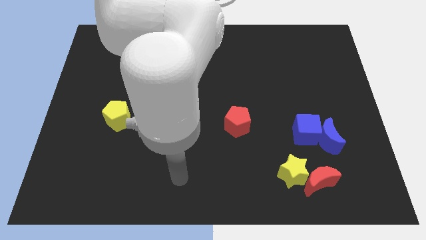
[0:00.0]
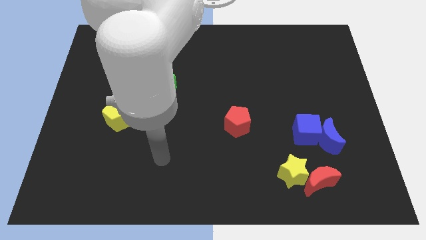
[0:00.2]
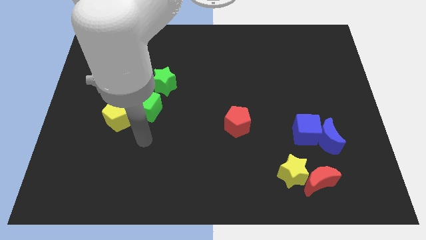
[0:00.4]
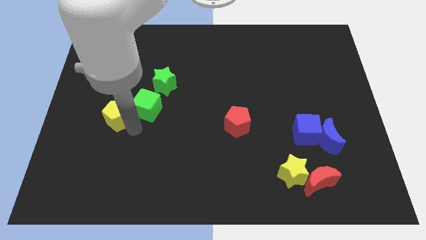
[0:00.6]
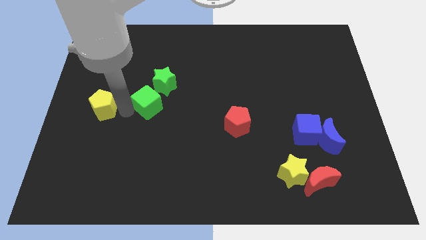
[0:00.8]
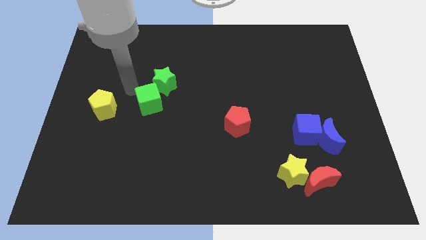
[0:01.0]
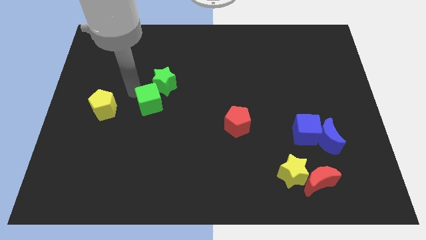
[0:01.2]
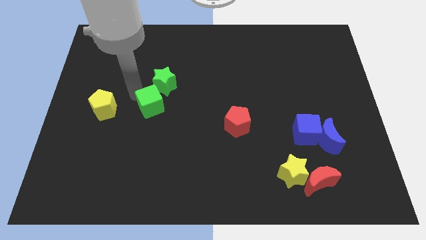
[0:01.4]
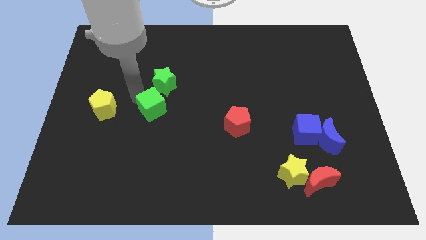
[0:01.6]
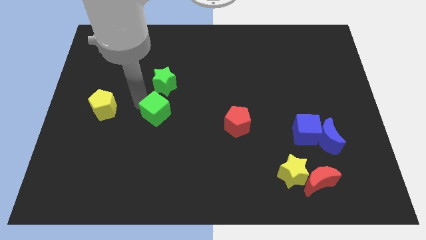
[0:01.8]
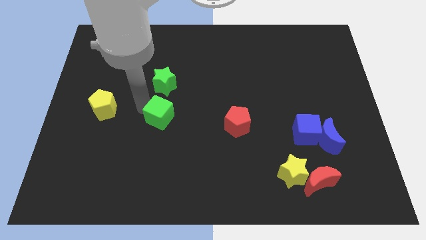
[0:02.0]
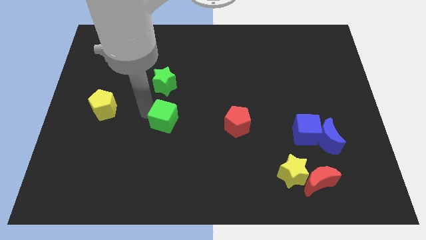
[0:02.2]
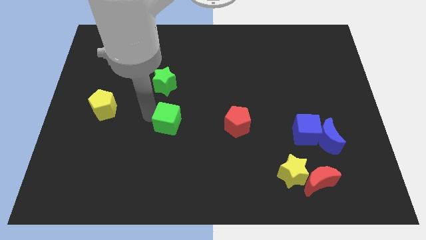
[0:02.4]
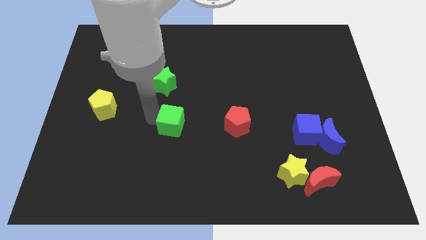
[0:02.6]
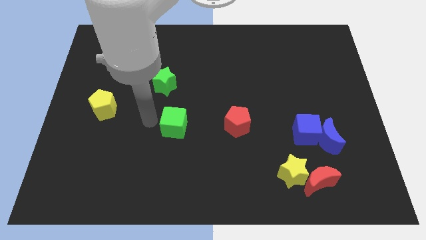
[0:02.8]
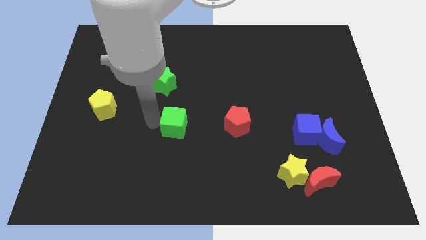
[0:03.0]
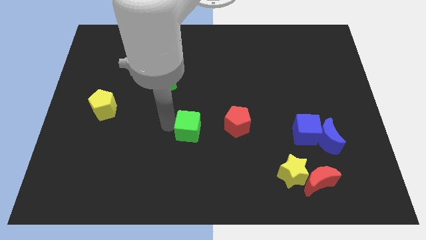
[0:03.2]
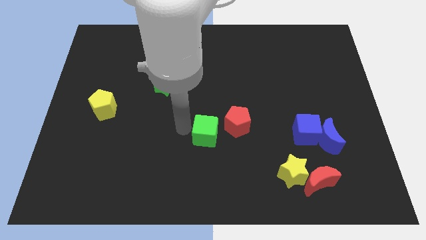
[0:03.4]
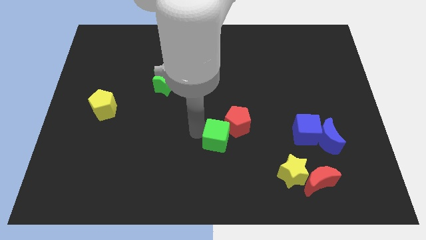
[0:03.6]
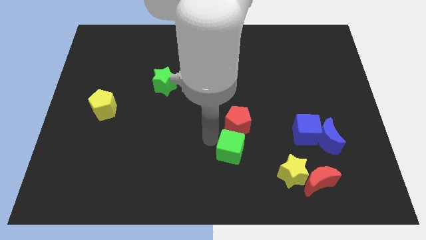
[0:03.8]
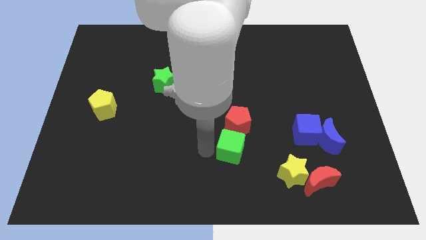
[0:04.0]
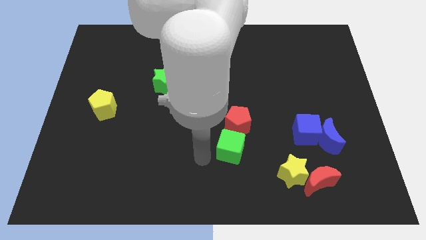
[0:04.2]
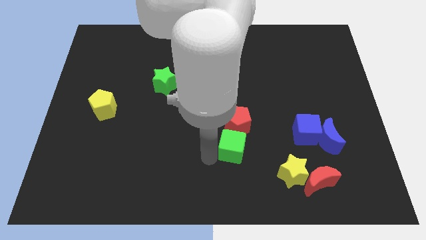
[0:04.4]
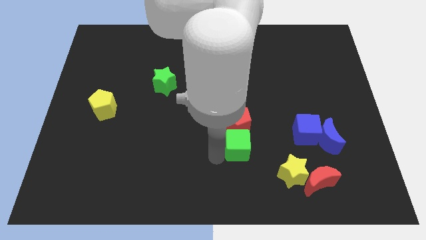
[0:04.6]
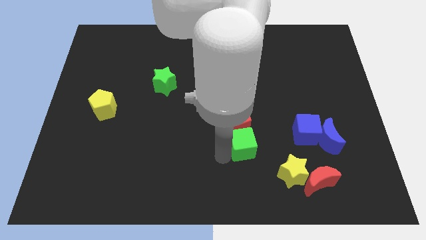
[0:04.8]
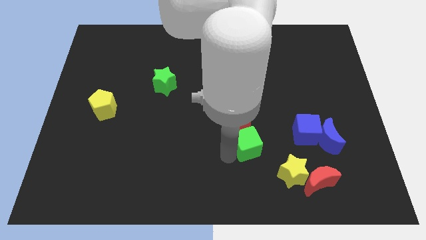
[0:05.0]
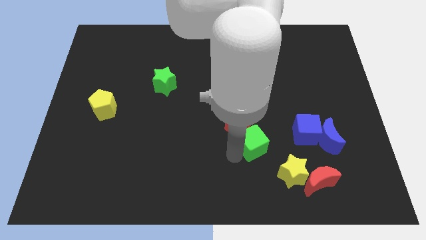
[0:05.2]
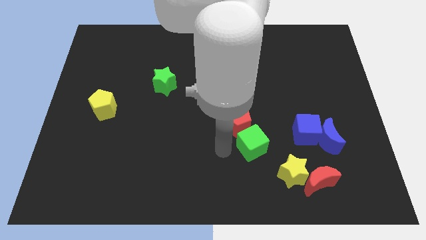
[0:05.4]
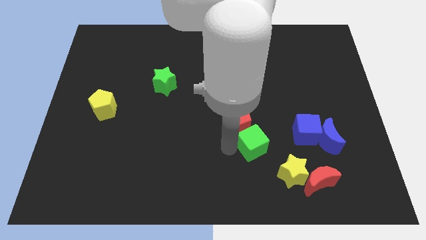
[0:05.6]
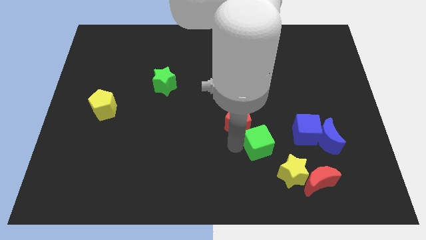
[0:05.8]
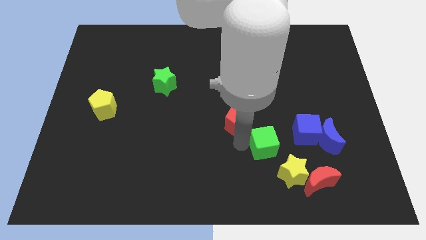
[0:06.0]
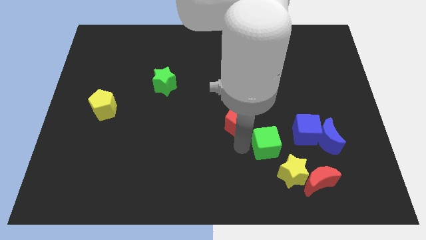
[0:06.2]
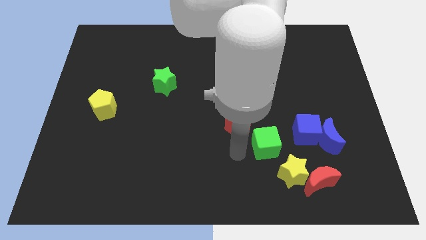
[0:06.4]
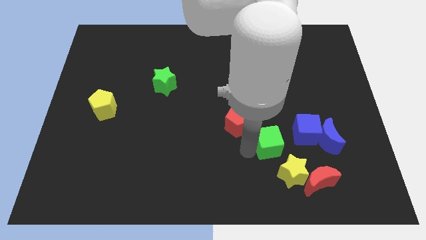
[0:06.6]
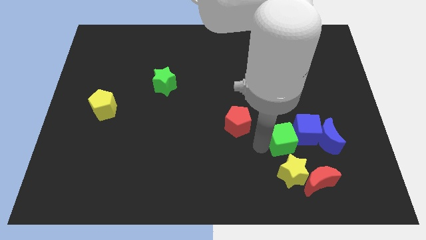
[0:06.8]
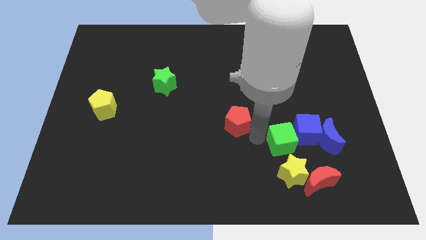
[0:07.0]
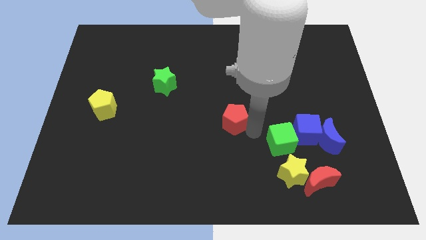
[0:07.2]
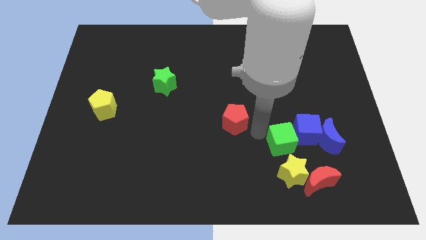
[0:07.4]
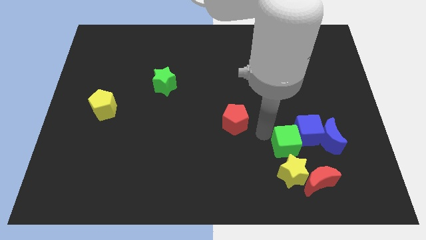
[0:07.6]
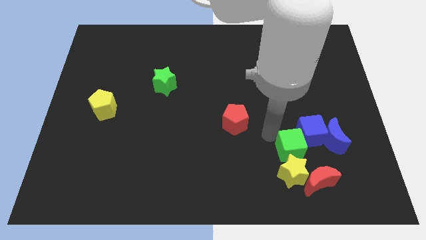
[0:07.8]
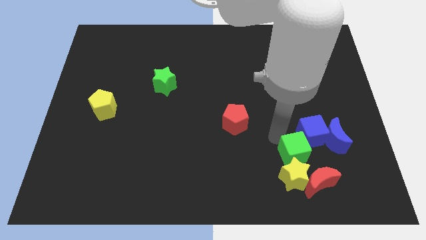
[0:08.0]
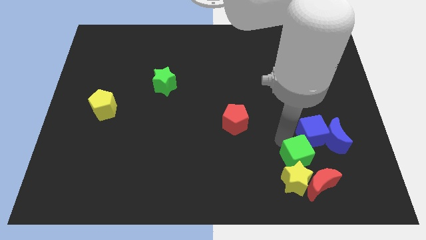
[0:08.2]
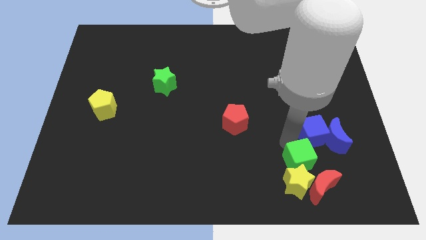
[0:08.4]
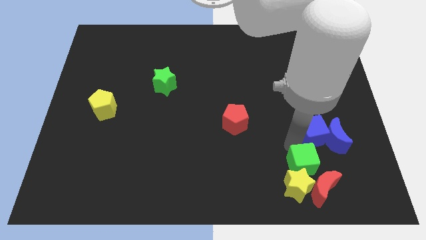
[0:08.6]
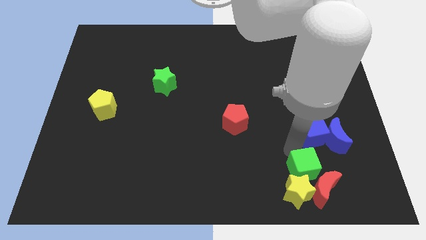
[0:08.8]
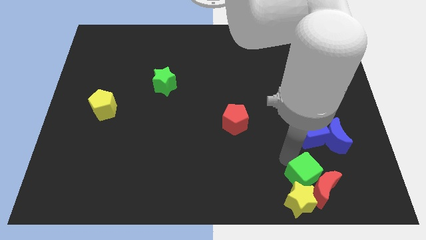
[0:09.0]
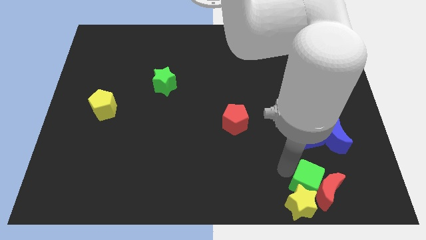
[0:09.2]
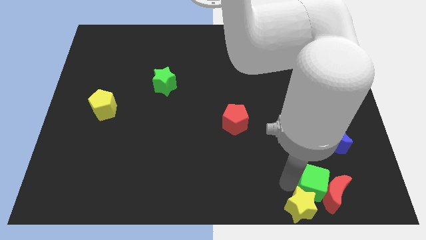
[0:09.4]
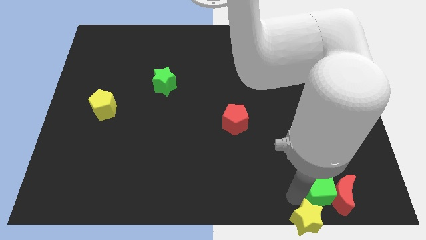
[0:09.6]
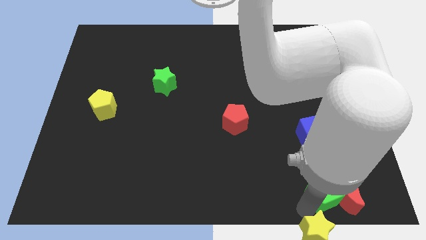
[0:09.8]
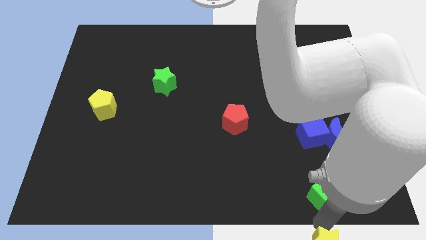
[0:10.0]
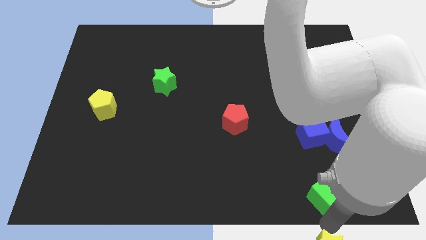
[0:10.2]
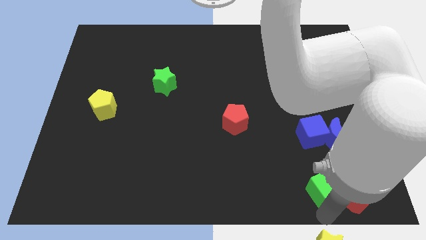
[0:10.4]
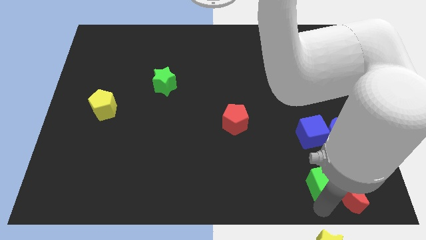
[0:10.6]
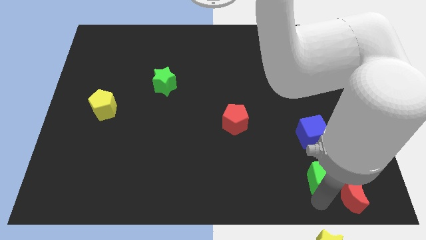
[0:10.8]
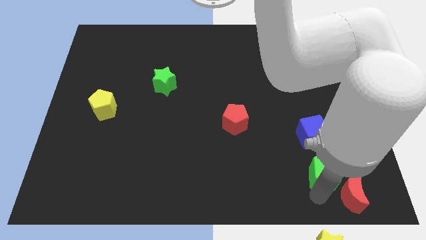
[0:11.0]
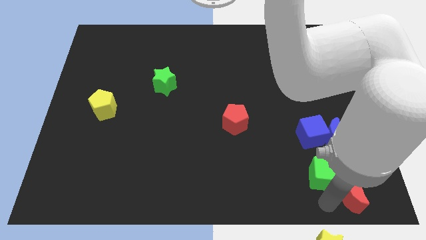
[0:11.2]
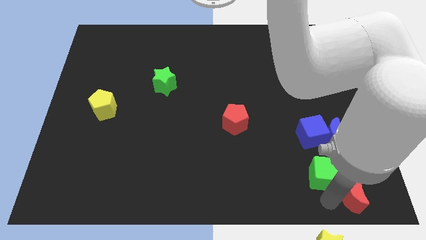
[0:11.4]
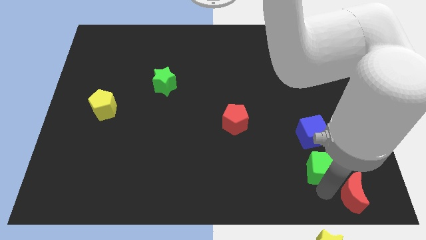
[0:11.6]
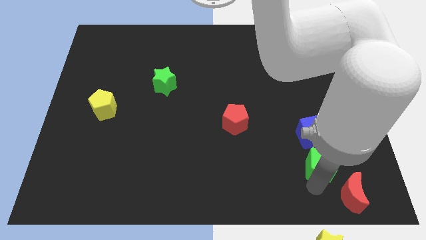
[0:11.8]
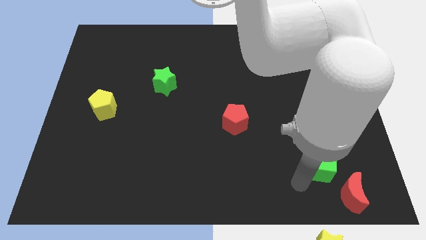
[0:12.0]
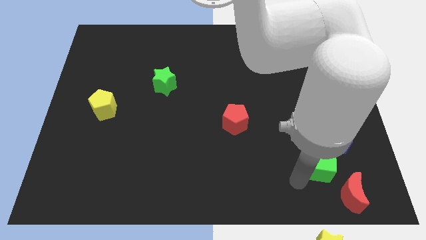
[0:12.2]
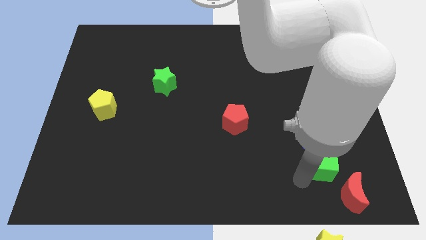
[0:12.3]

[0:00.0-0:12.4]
slide the green cube to the bottom right of the blue cube
